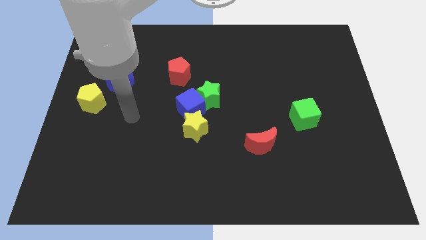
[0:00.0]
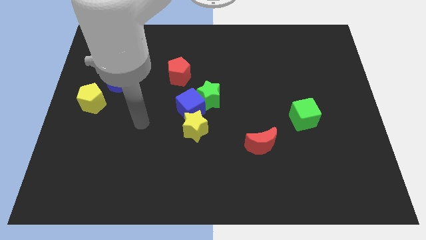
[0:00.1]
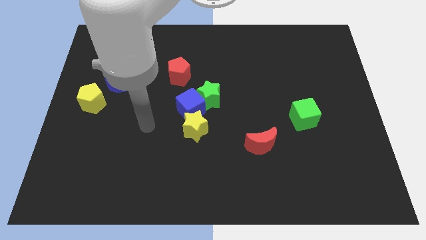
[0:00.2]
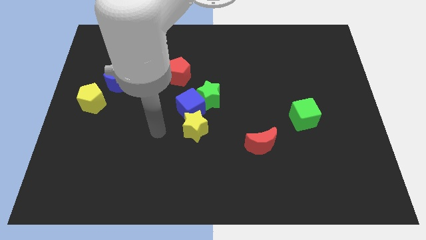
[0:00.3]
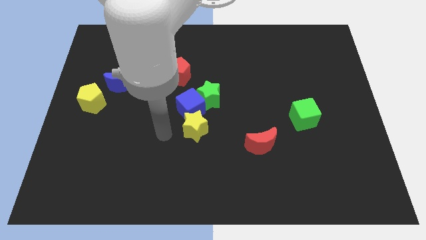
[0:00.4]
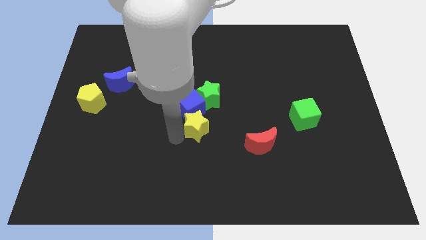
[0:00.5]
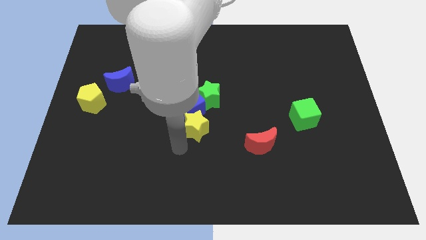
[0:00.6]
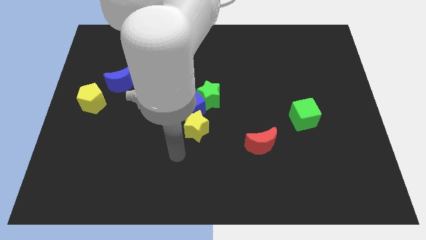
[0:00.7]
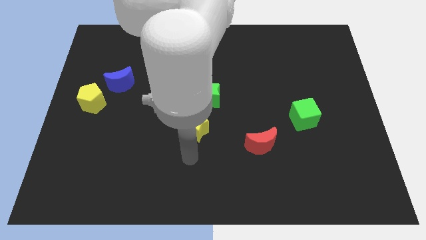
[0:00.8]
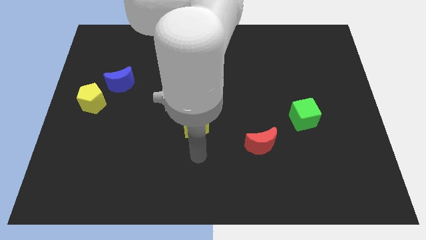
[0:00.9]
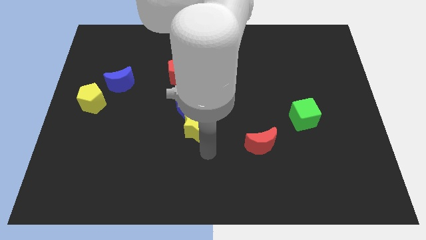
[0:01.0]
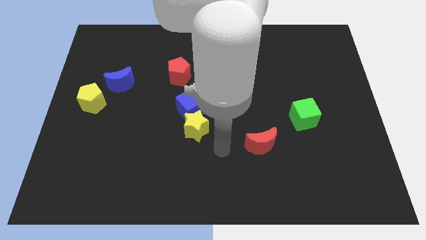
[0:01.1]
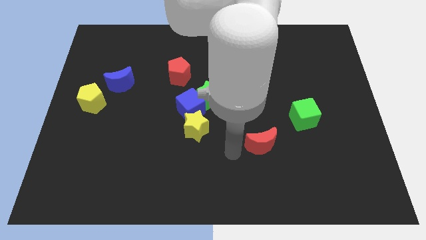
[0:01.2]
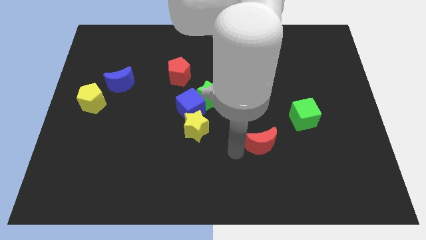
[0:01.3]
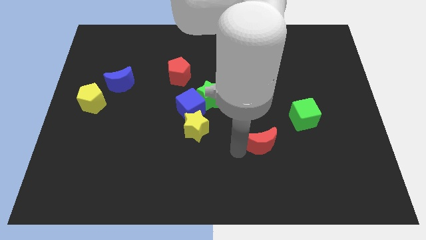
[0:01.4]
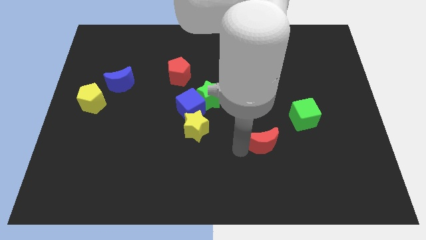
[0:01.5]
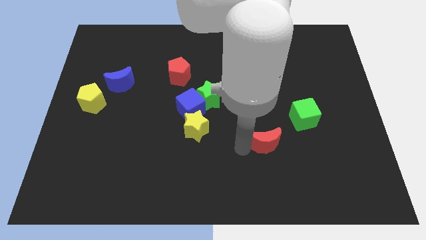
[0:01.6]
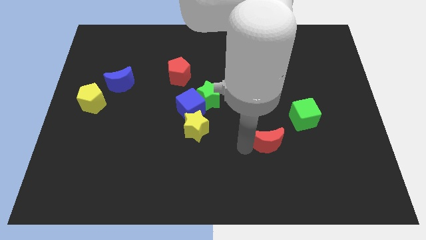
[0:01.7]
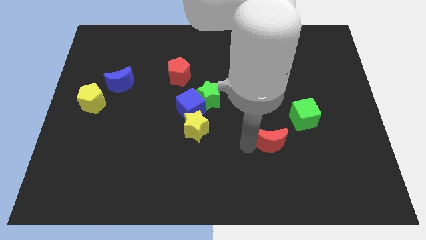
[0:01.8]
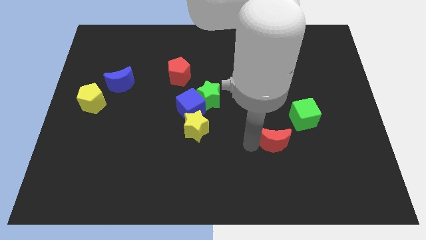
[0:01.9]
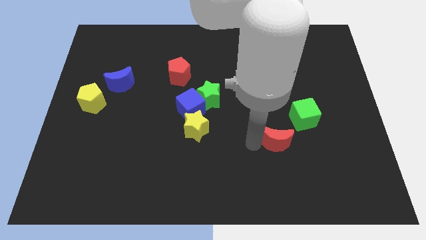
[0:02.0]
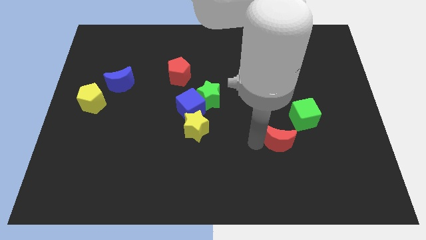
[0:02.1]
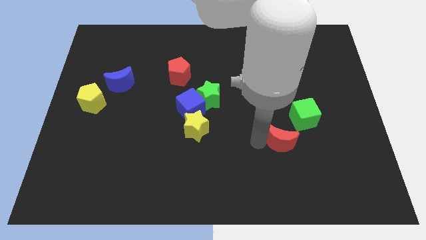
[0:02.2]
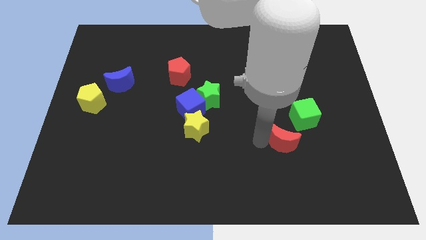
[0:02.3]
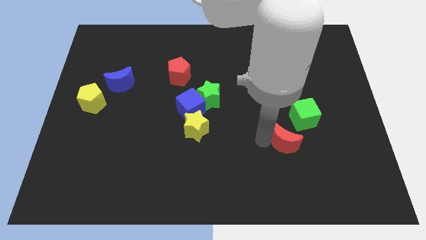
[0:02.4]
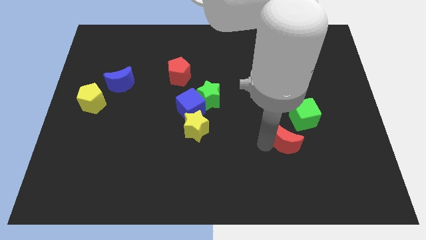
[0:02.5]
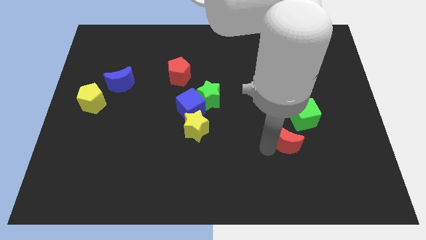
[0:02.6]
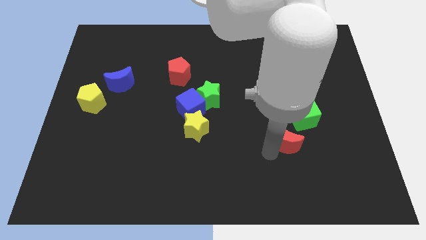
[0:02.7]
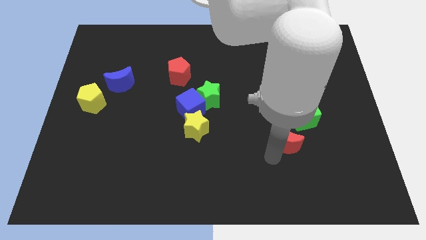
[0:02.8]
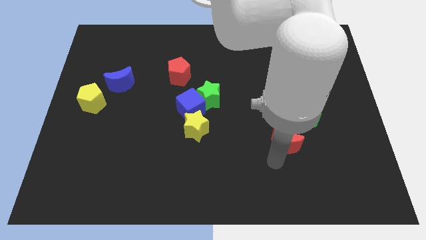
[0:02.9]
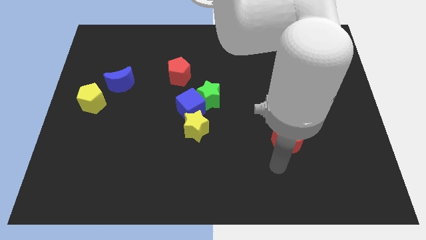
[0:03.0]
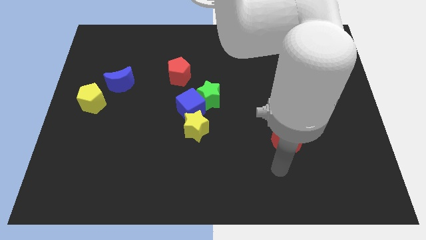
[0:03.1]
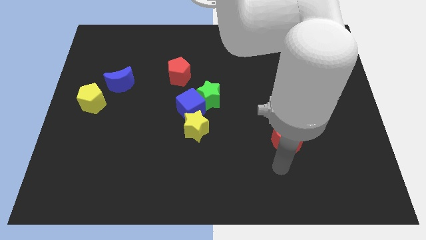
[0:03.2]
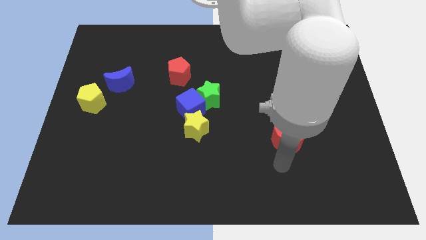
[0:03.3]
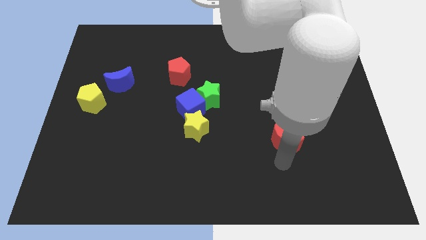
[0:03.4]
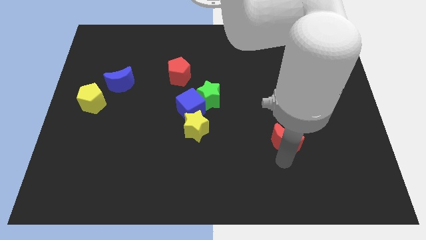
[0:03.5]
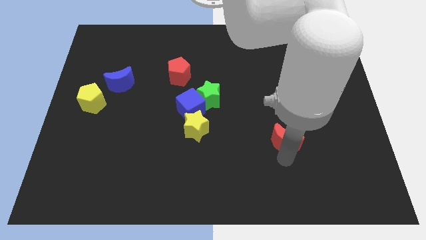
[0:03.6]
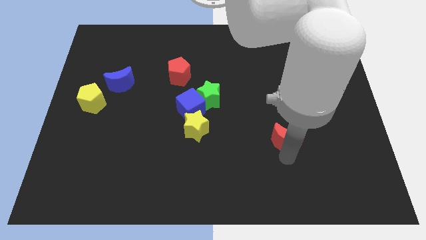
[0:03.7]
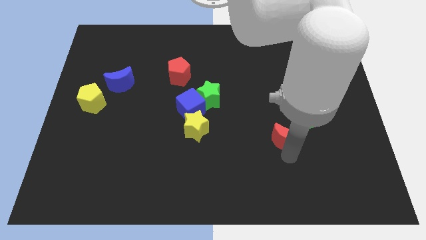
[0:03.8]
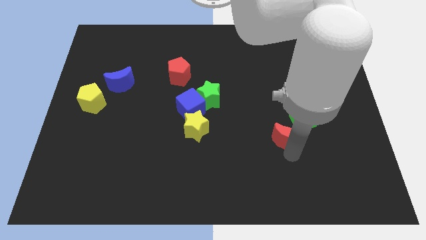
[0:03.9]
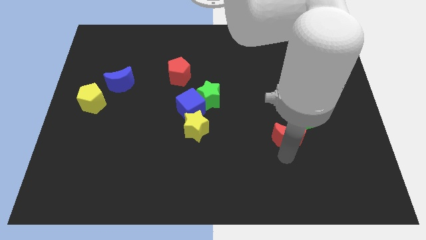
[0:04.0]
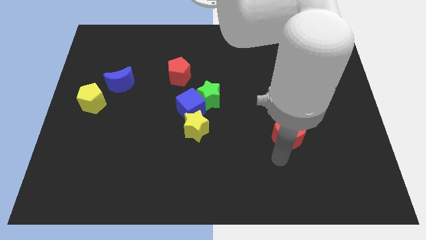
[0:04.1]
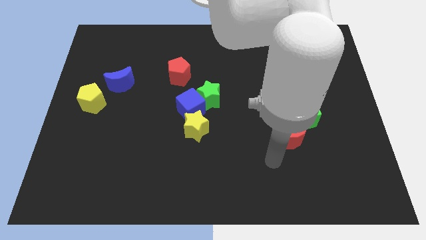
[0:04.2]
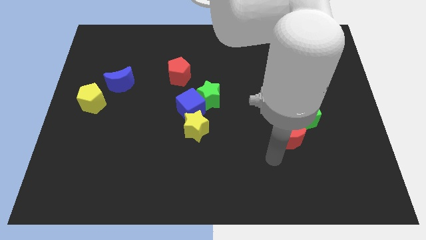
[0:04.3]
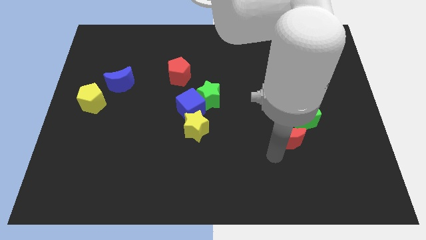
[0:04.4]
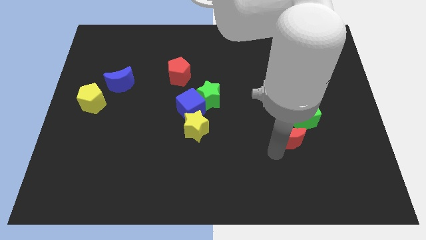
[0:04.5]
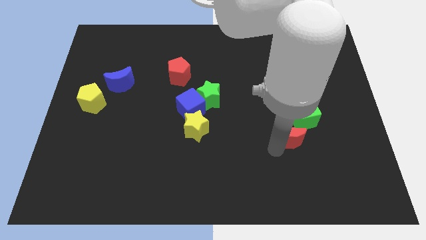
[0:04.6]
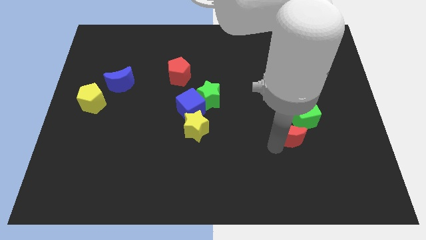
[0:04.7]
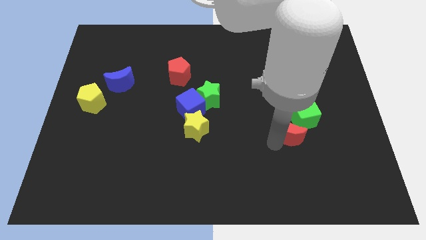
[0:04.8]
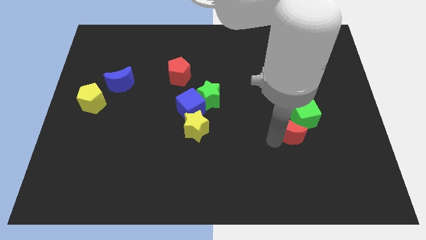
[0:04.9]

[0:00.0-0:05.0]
move the red moon towards the green cube

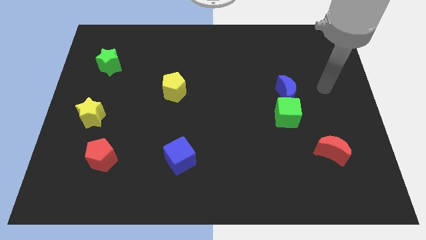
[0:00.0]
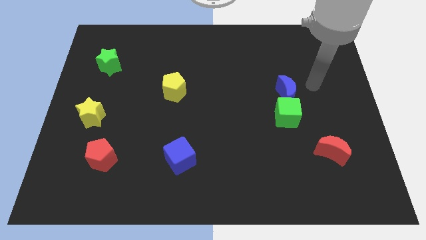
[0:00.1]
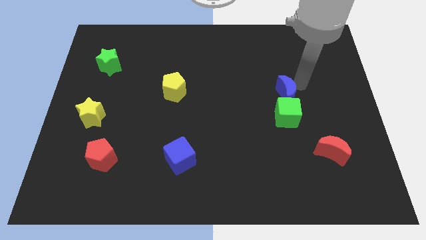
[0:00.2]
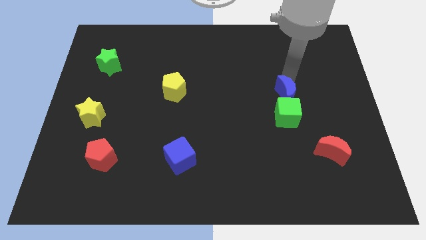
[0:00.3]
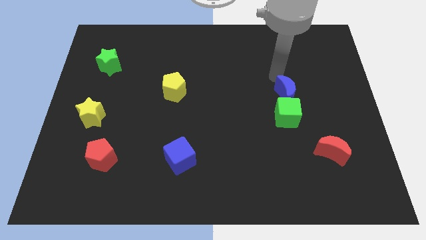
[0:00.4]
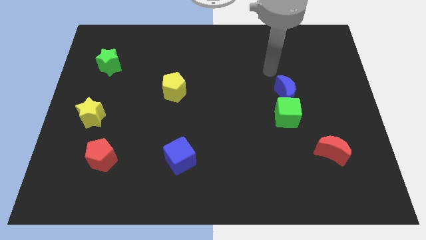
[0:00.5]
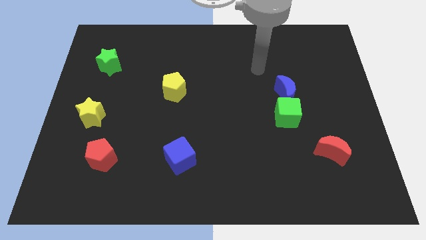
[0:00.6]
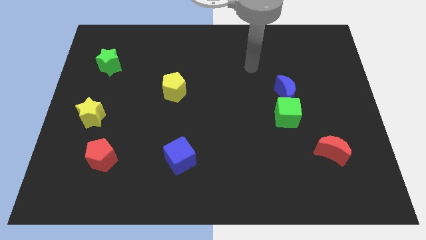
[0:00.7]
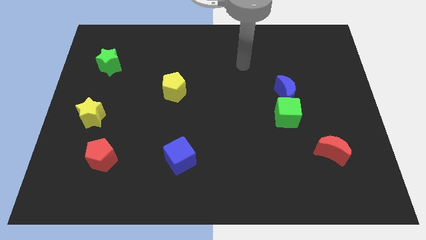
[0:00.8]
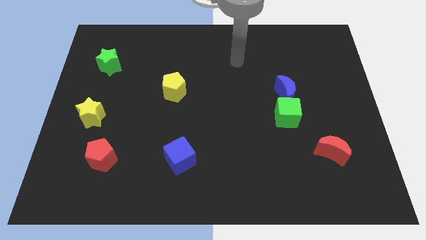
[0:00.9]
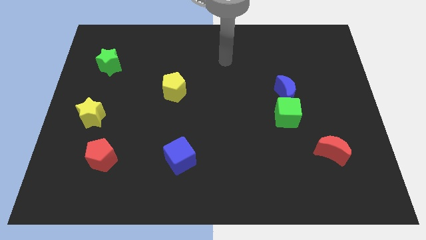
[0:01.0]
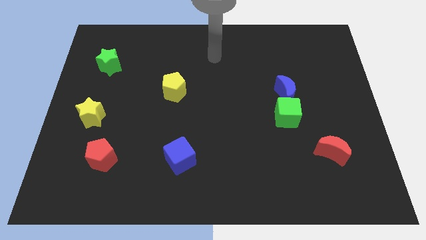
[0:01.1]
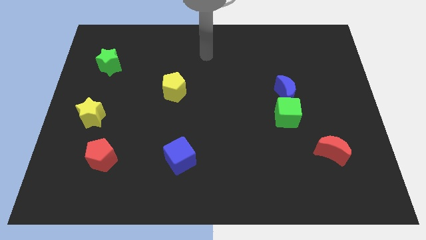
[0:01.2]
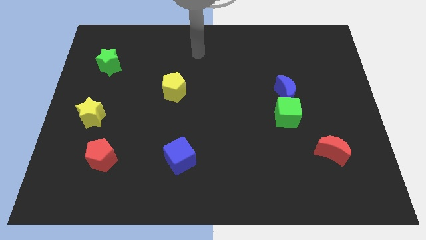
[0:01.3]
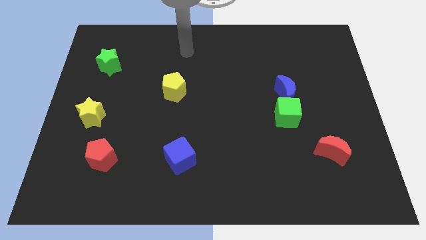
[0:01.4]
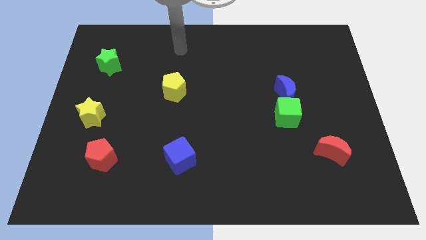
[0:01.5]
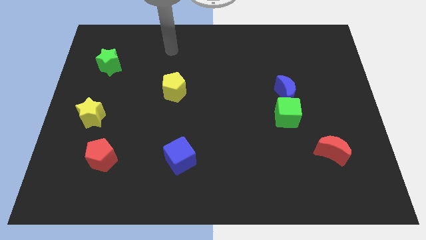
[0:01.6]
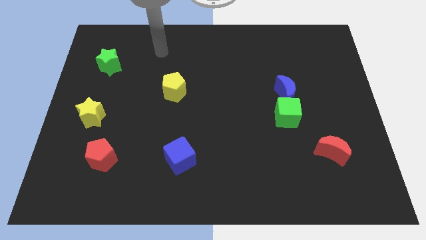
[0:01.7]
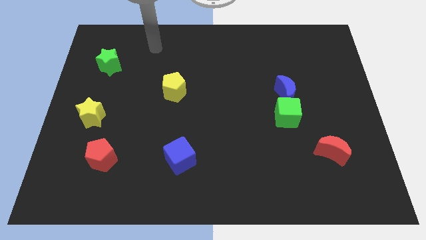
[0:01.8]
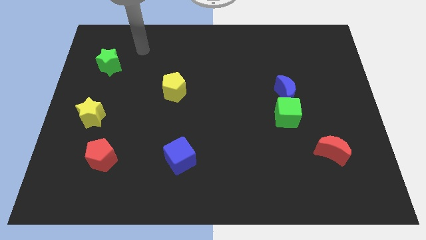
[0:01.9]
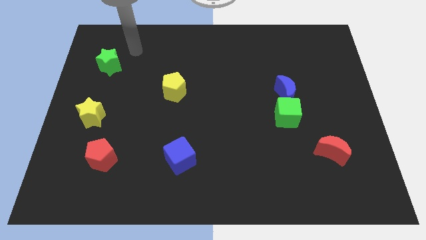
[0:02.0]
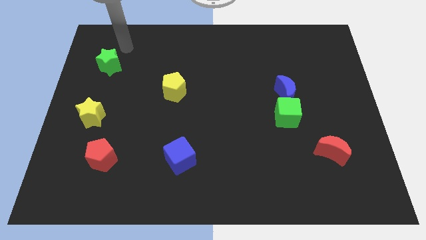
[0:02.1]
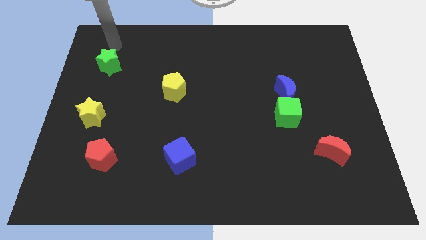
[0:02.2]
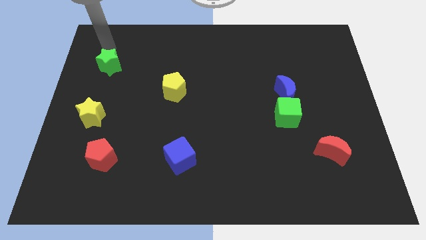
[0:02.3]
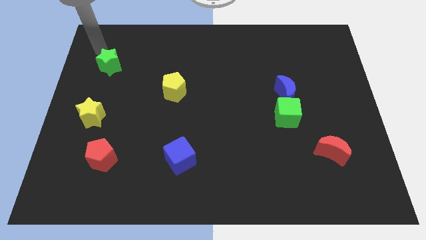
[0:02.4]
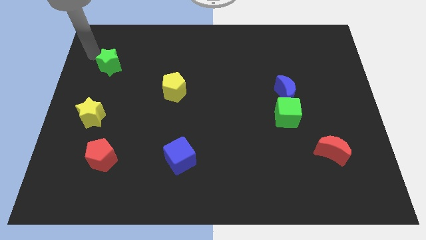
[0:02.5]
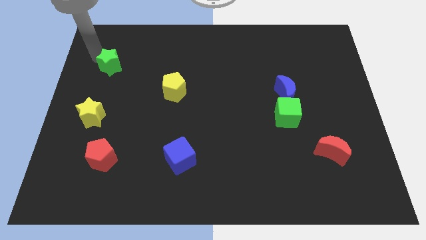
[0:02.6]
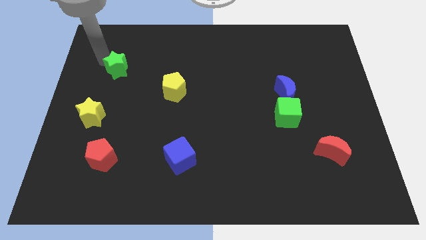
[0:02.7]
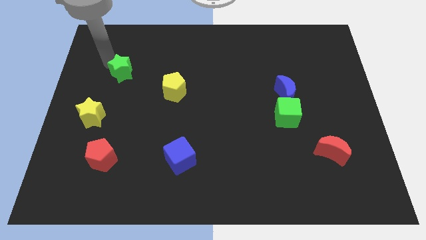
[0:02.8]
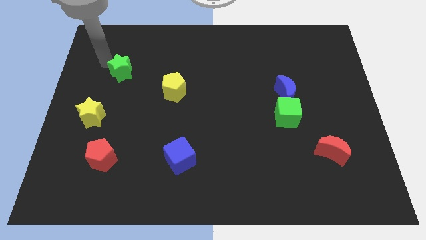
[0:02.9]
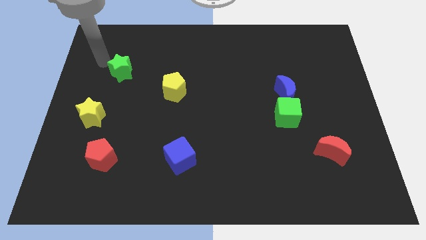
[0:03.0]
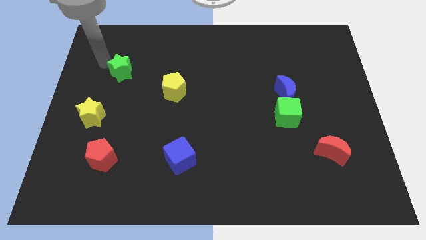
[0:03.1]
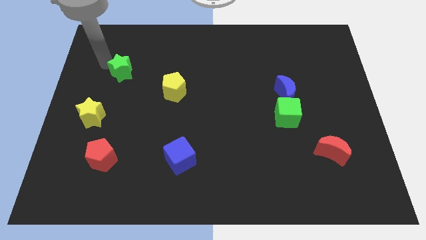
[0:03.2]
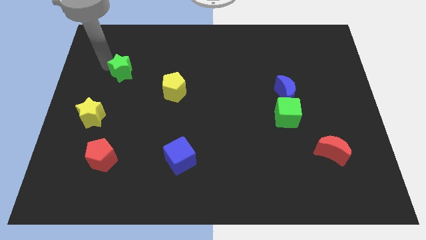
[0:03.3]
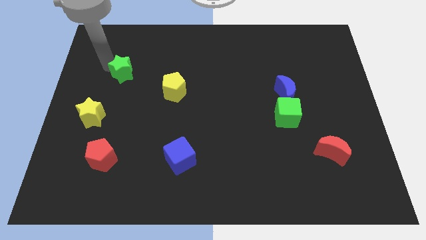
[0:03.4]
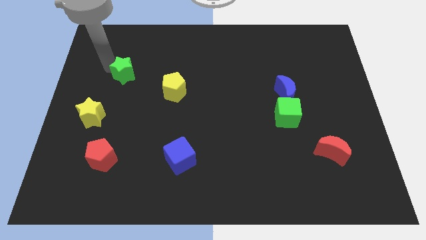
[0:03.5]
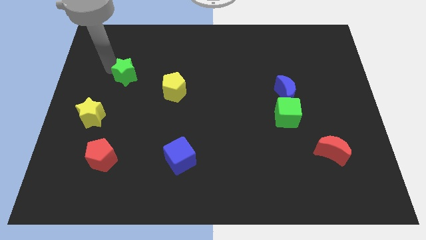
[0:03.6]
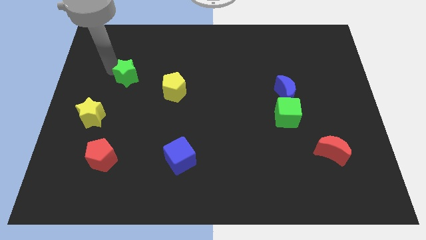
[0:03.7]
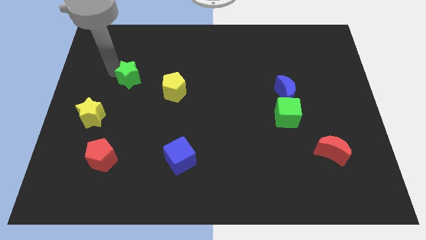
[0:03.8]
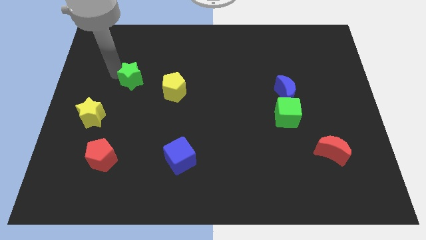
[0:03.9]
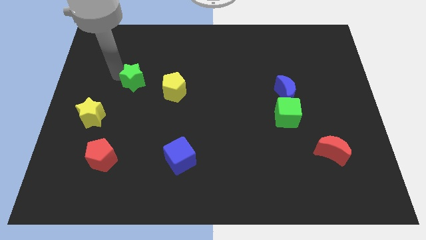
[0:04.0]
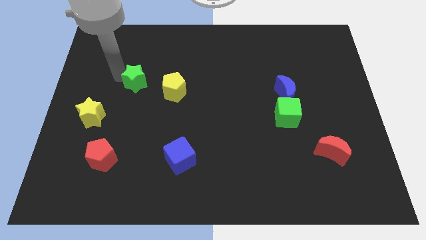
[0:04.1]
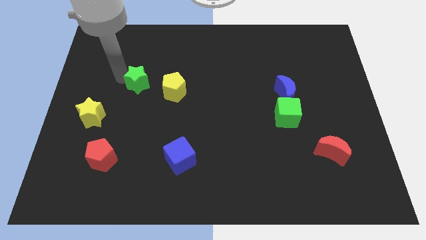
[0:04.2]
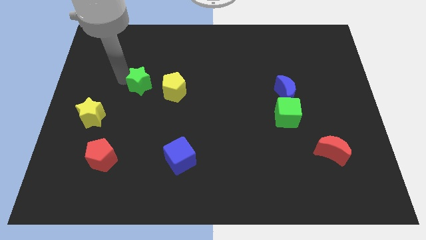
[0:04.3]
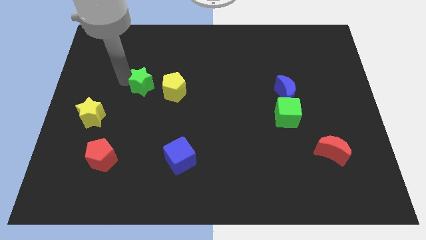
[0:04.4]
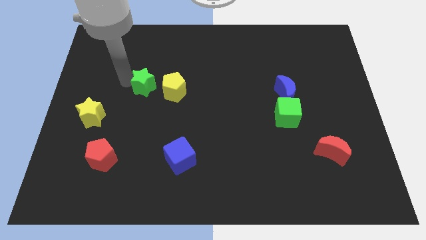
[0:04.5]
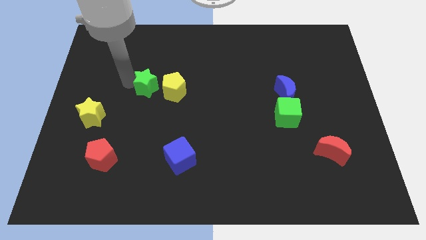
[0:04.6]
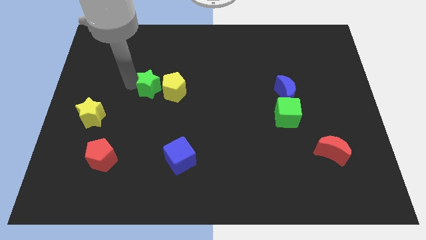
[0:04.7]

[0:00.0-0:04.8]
move the green star next to the yellow pentagon
